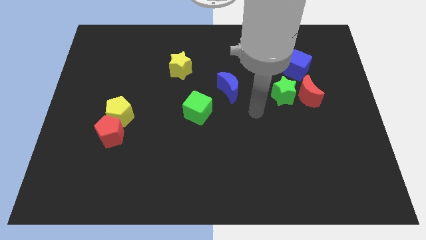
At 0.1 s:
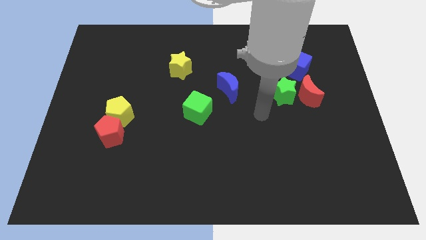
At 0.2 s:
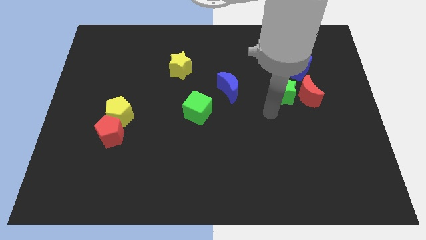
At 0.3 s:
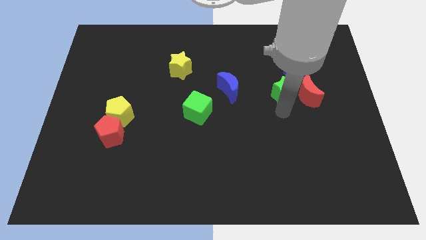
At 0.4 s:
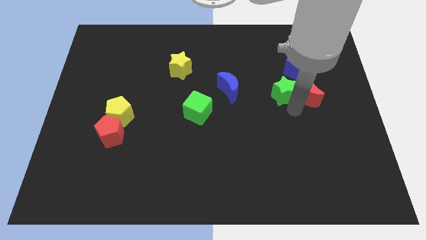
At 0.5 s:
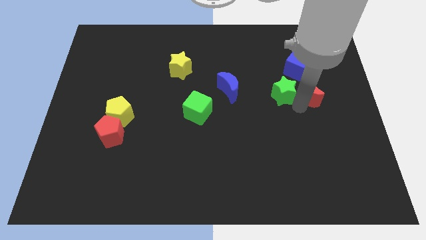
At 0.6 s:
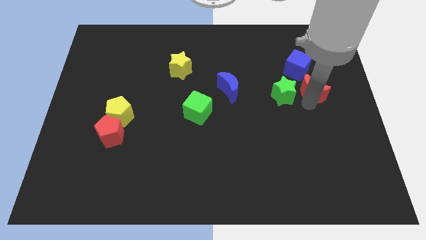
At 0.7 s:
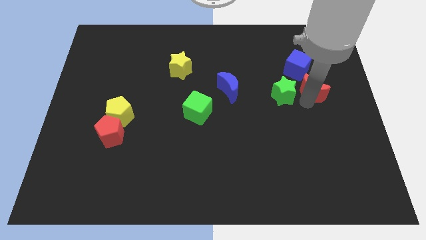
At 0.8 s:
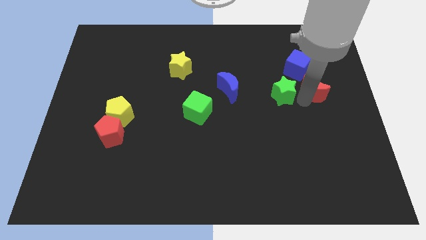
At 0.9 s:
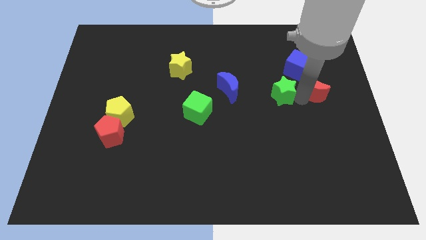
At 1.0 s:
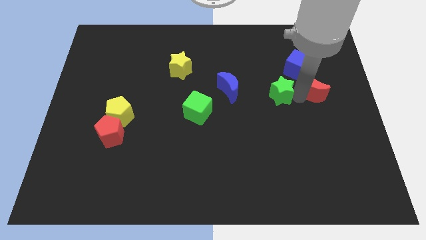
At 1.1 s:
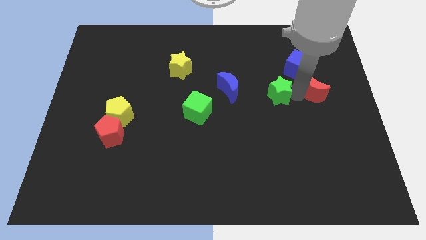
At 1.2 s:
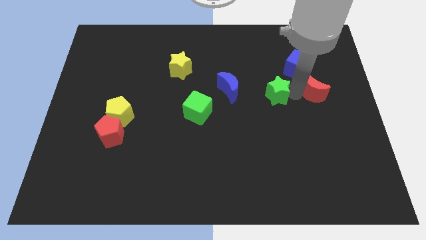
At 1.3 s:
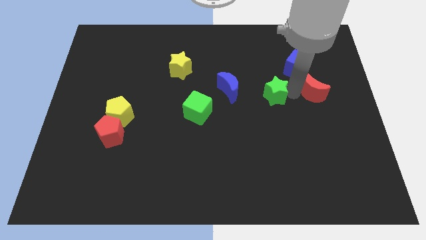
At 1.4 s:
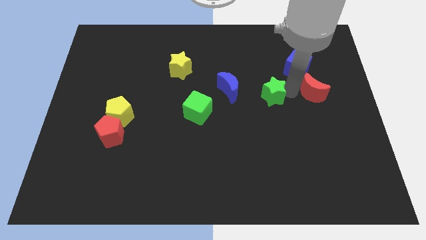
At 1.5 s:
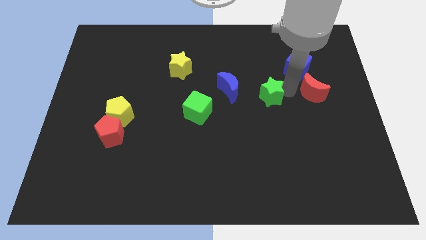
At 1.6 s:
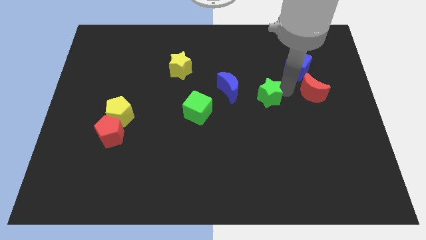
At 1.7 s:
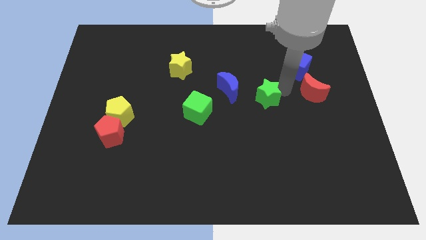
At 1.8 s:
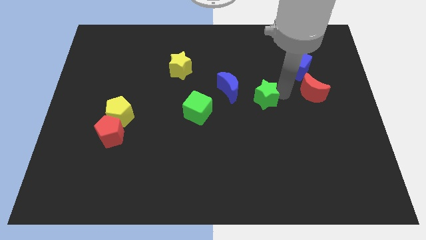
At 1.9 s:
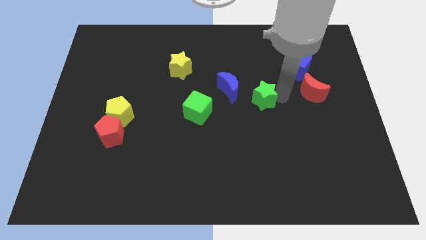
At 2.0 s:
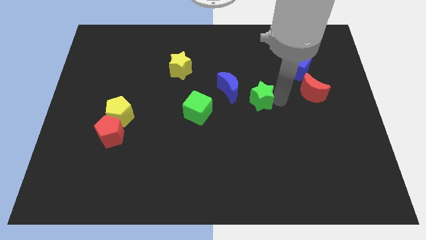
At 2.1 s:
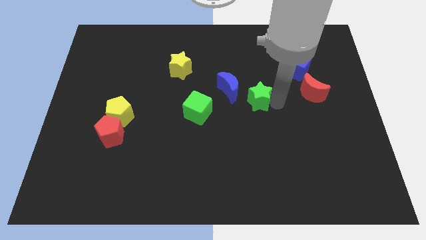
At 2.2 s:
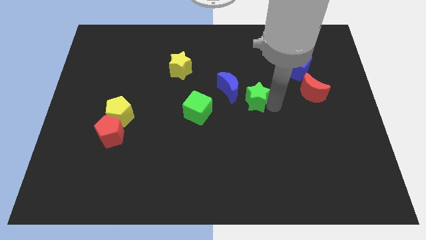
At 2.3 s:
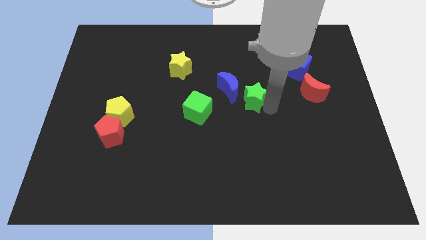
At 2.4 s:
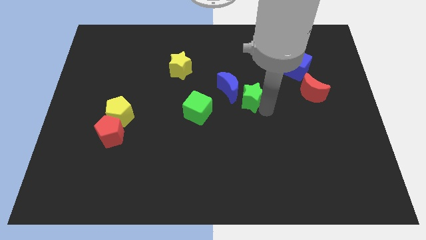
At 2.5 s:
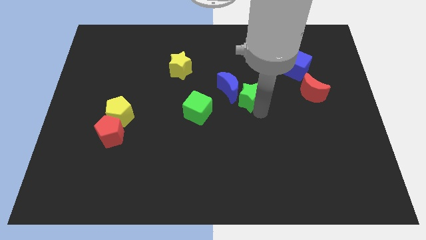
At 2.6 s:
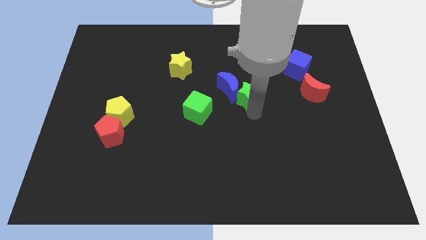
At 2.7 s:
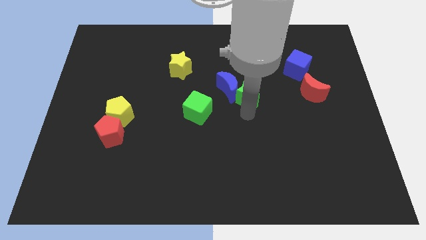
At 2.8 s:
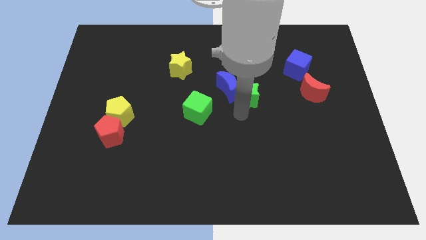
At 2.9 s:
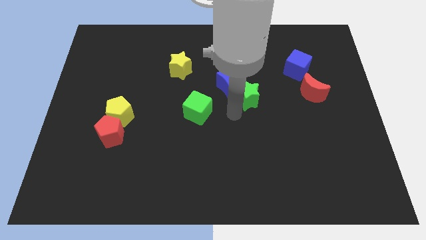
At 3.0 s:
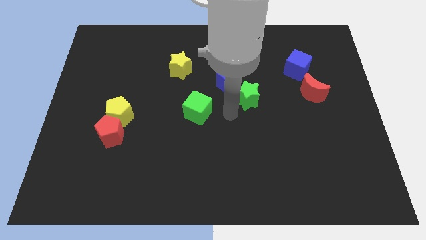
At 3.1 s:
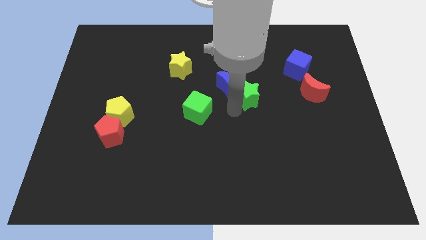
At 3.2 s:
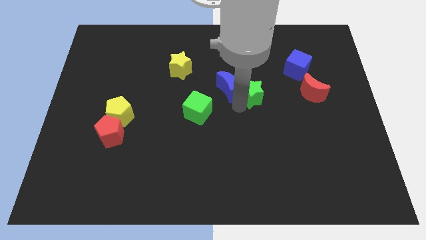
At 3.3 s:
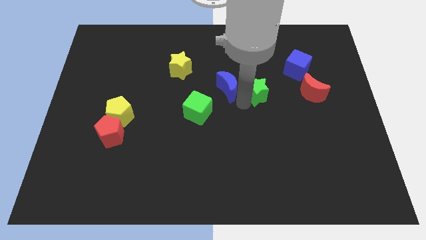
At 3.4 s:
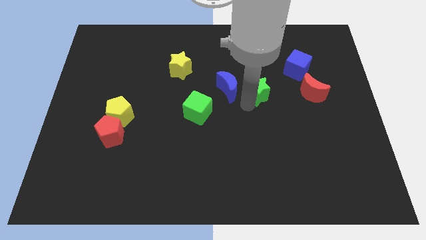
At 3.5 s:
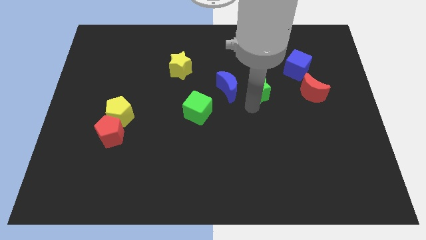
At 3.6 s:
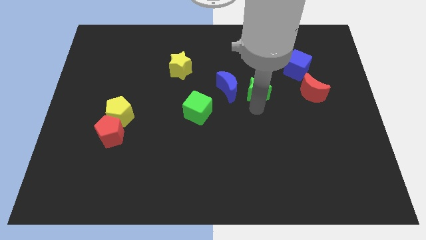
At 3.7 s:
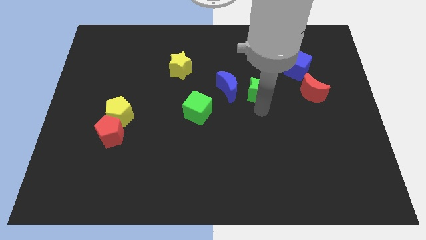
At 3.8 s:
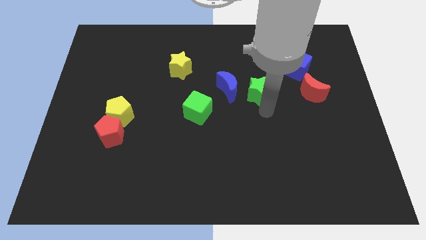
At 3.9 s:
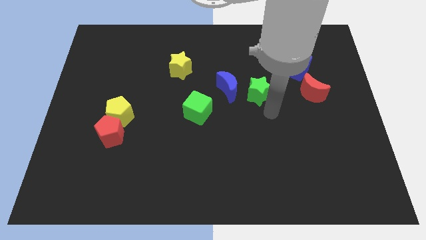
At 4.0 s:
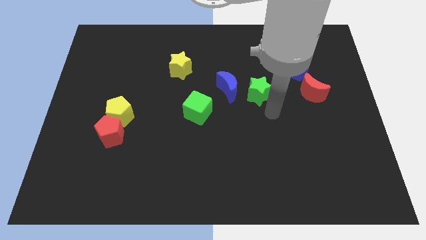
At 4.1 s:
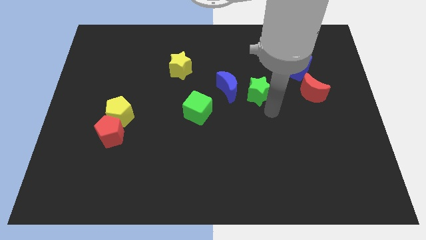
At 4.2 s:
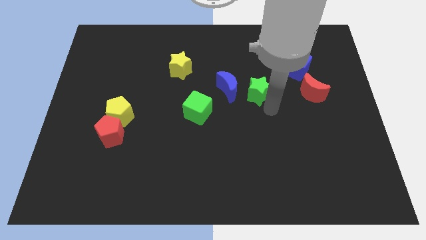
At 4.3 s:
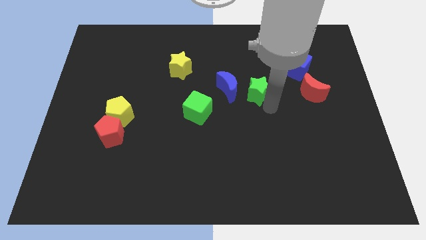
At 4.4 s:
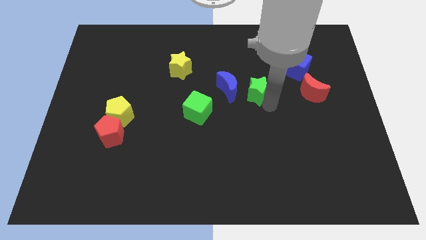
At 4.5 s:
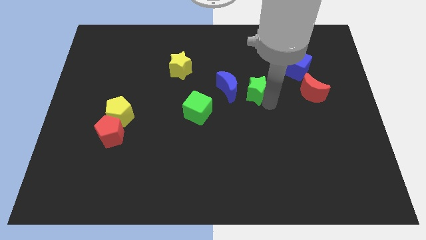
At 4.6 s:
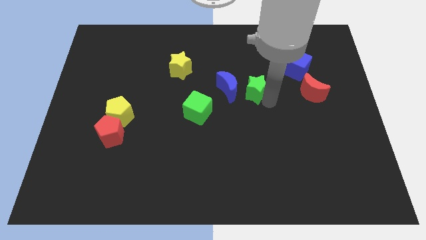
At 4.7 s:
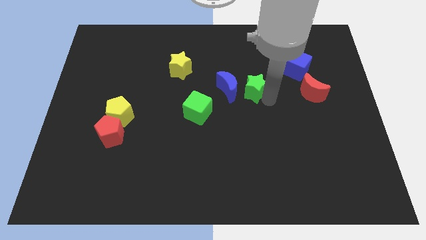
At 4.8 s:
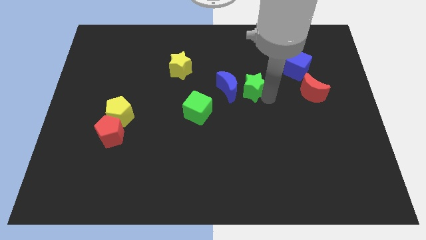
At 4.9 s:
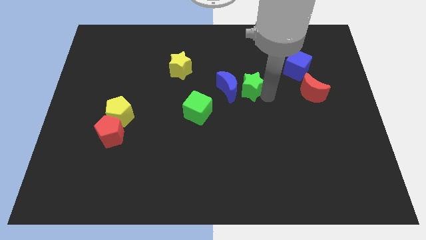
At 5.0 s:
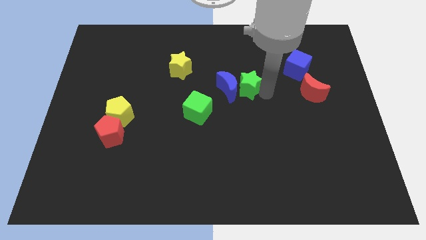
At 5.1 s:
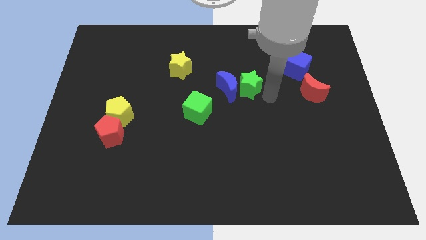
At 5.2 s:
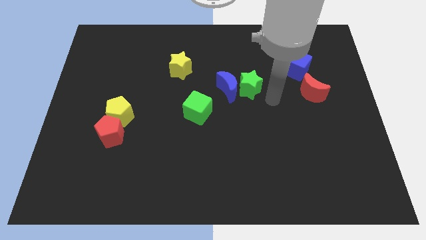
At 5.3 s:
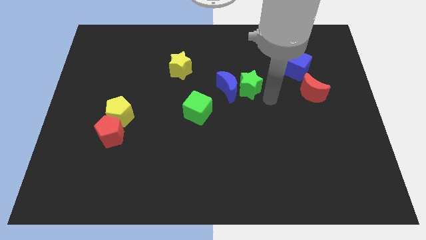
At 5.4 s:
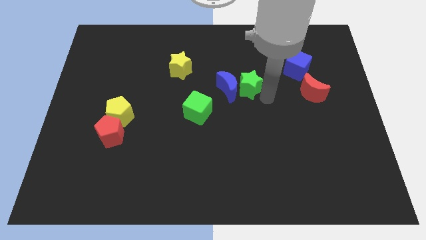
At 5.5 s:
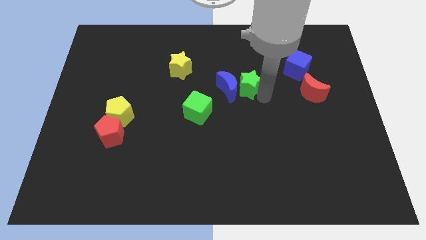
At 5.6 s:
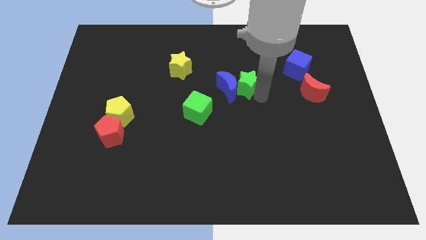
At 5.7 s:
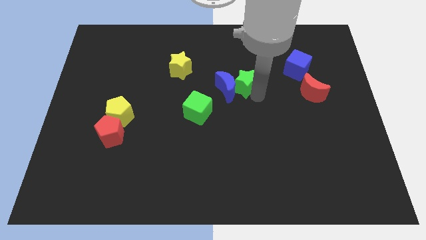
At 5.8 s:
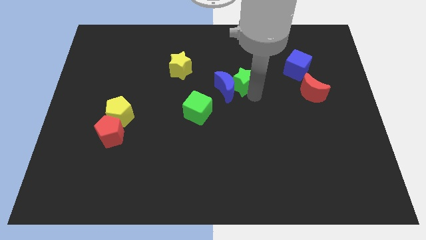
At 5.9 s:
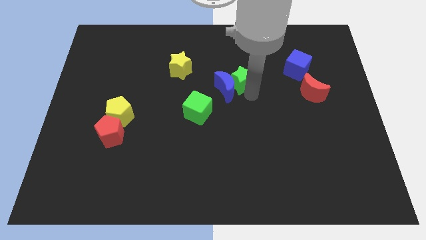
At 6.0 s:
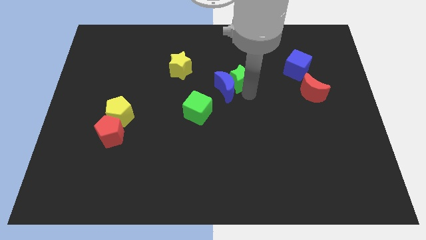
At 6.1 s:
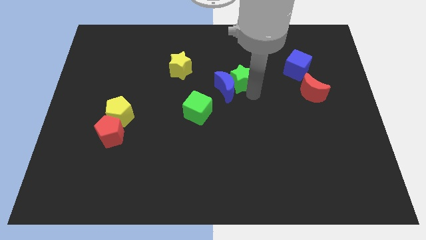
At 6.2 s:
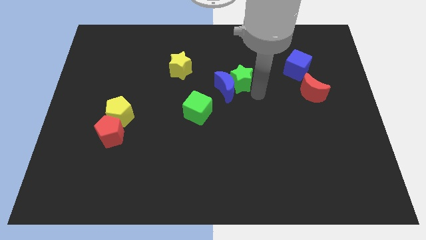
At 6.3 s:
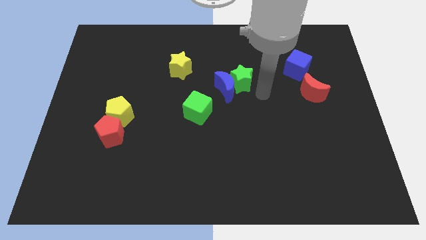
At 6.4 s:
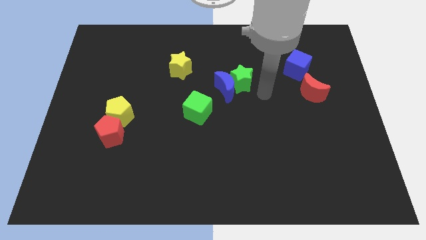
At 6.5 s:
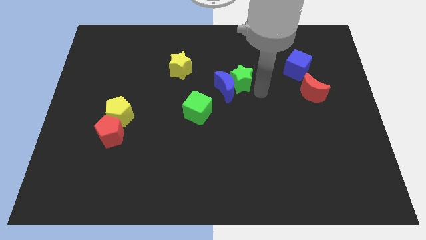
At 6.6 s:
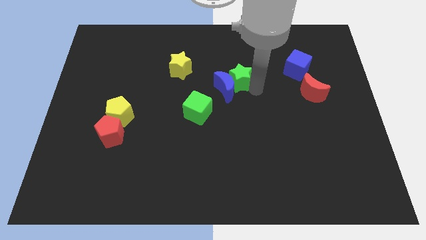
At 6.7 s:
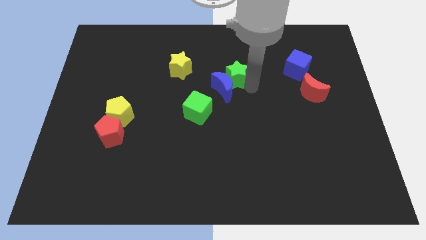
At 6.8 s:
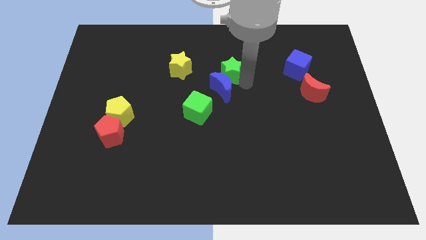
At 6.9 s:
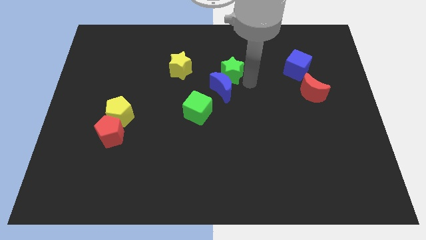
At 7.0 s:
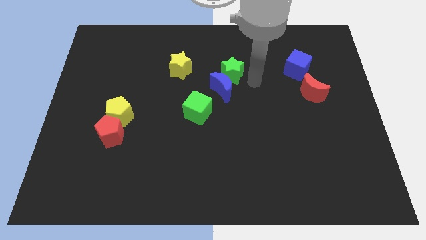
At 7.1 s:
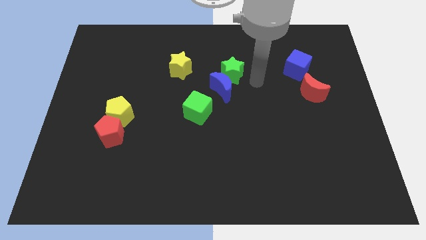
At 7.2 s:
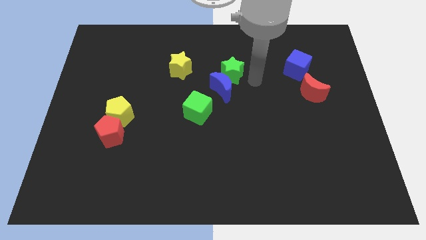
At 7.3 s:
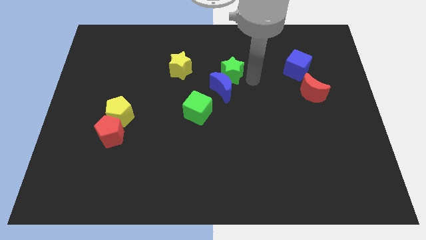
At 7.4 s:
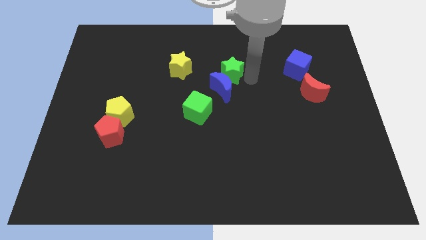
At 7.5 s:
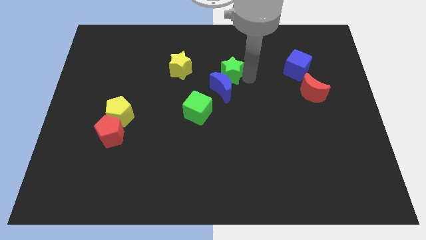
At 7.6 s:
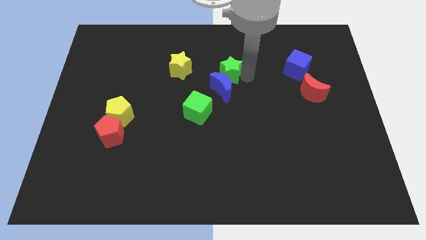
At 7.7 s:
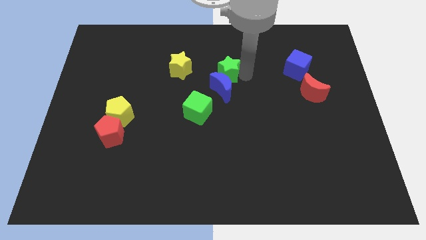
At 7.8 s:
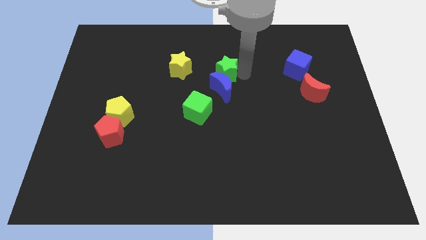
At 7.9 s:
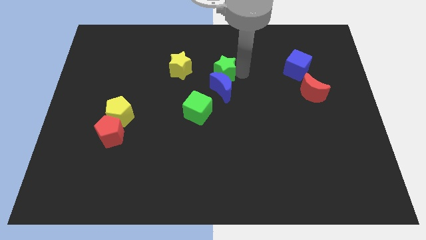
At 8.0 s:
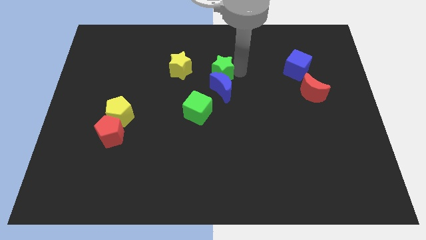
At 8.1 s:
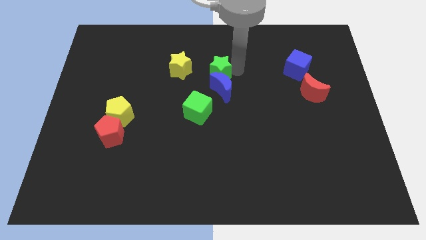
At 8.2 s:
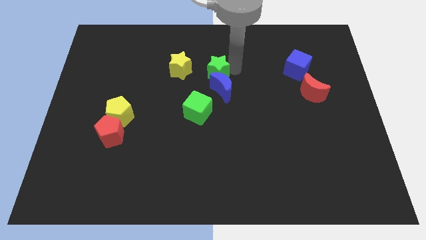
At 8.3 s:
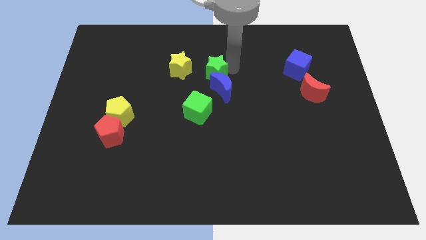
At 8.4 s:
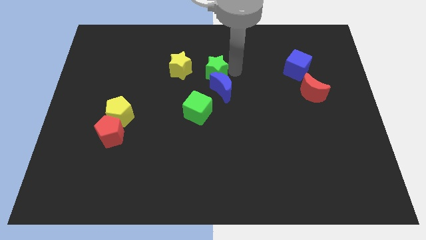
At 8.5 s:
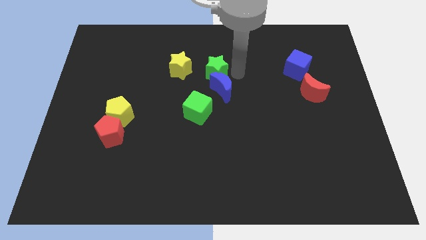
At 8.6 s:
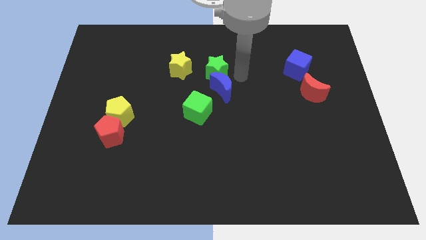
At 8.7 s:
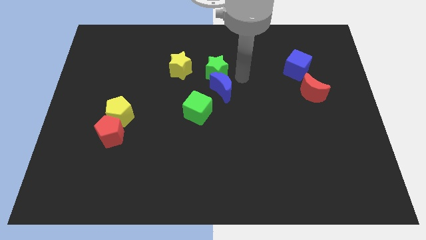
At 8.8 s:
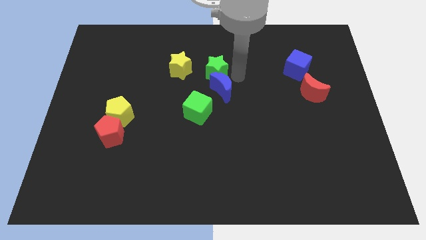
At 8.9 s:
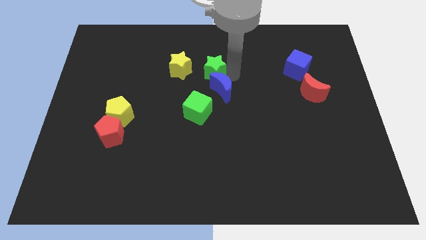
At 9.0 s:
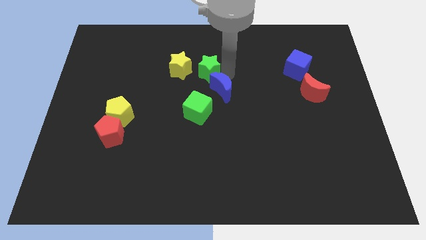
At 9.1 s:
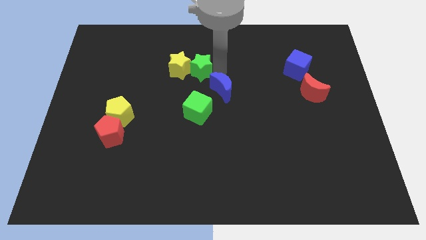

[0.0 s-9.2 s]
slide the green star to the yellow star
